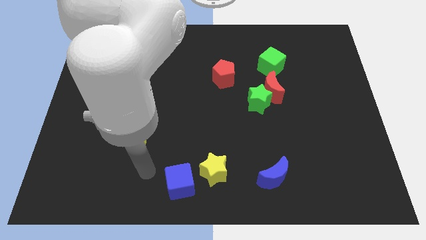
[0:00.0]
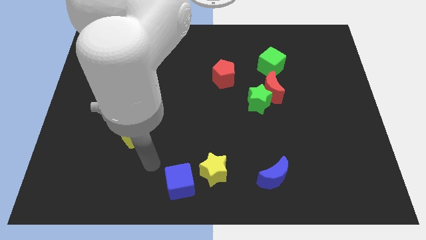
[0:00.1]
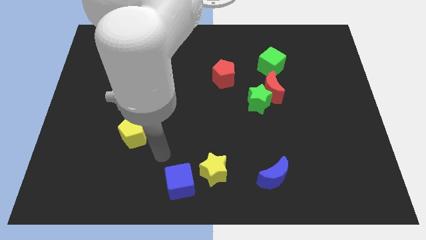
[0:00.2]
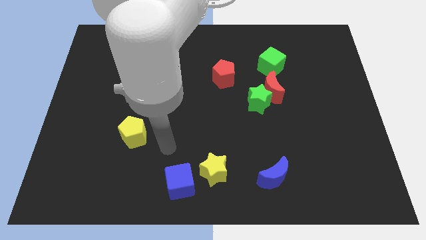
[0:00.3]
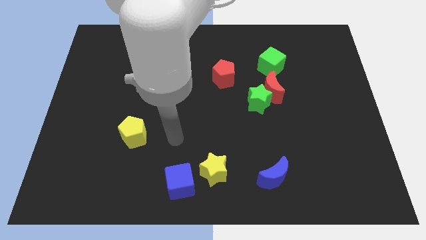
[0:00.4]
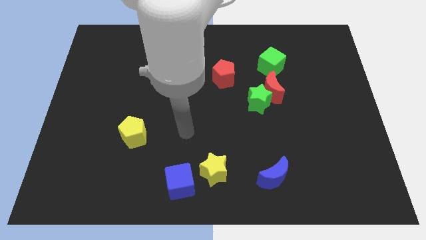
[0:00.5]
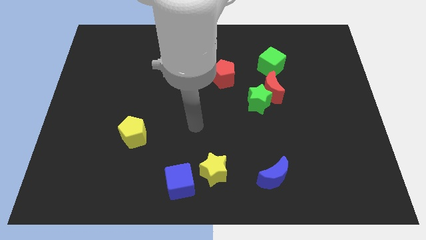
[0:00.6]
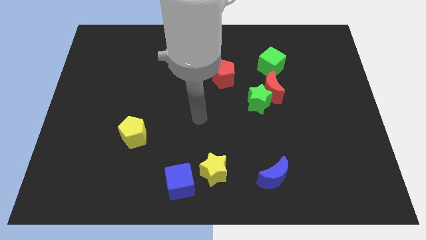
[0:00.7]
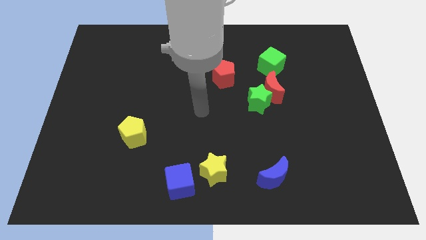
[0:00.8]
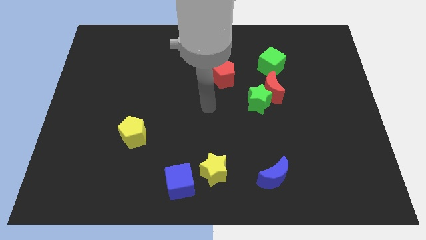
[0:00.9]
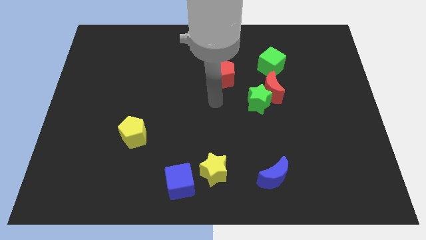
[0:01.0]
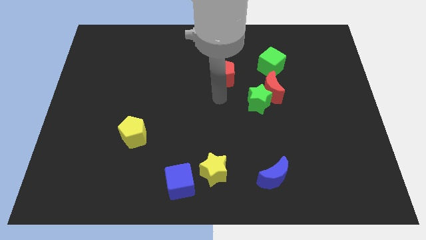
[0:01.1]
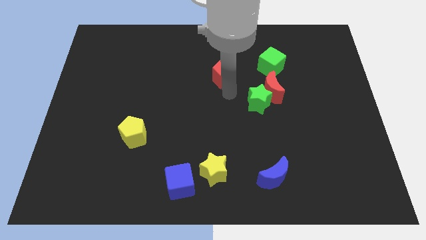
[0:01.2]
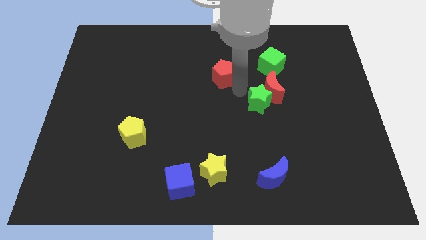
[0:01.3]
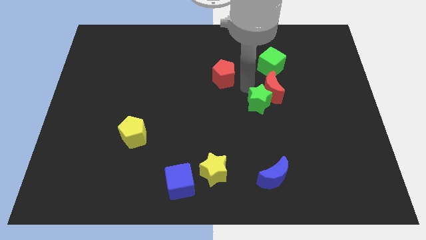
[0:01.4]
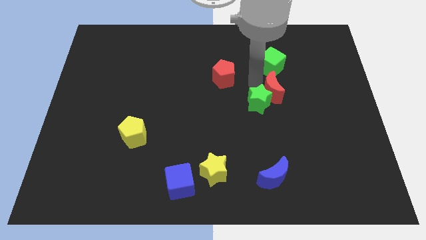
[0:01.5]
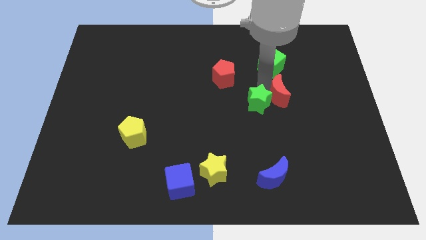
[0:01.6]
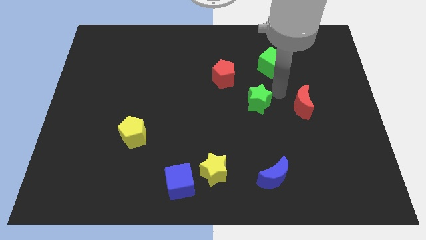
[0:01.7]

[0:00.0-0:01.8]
separate the green star from the red moon

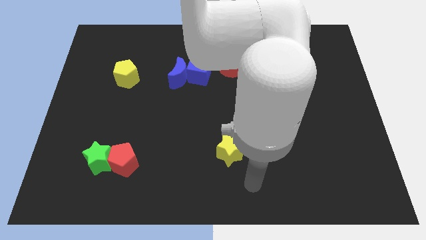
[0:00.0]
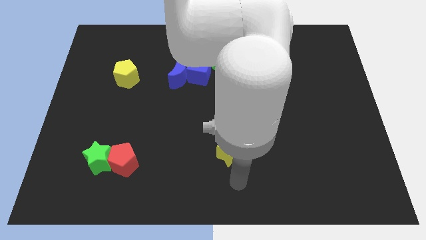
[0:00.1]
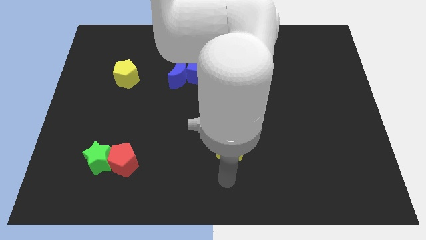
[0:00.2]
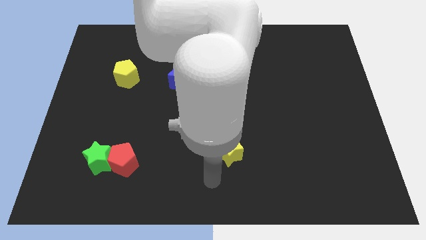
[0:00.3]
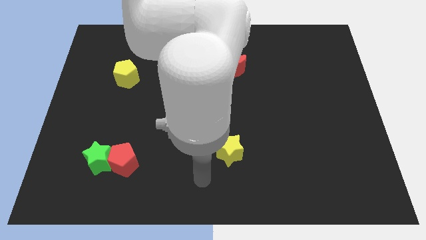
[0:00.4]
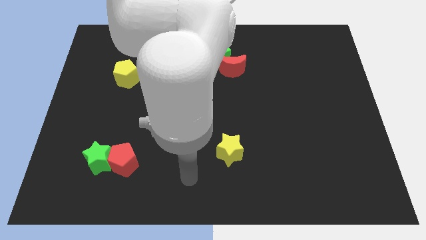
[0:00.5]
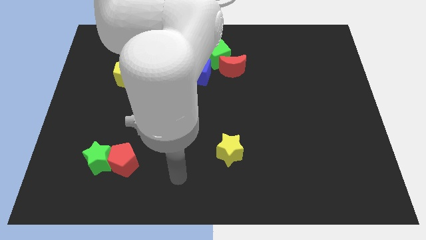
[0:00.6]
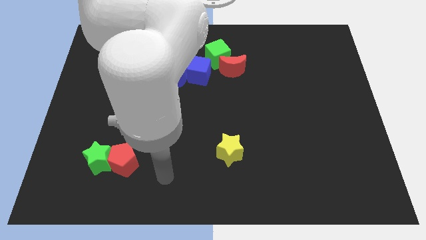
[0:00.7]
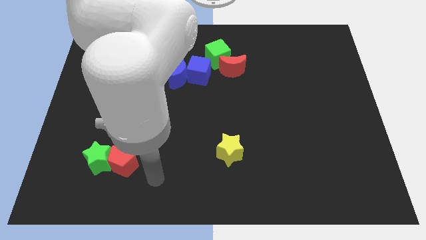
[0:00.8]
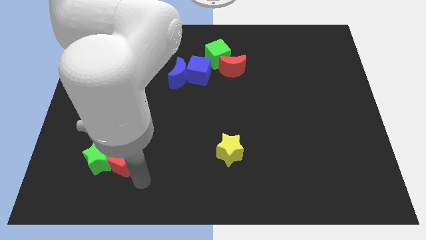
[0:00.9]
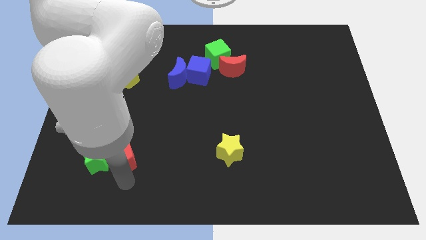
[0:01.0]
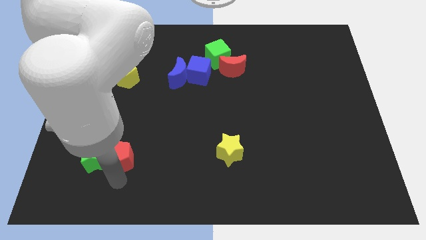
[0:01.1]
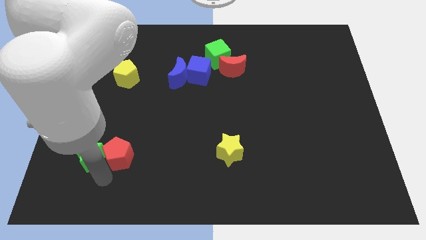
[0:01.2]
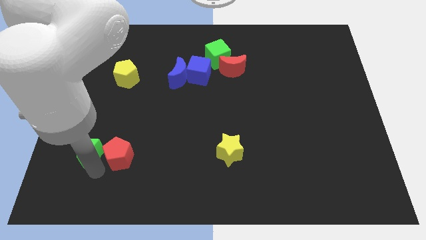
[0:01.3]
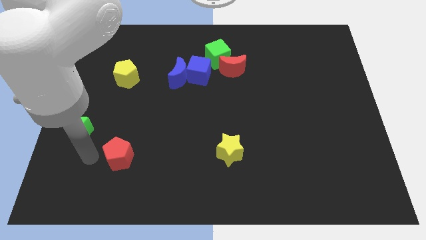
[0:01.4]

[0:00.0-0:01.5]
move the red pentagon away from the green star

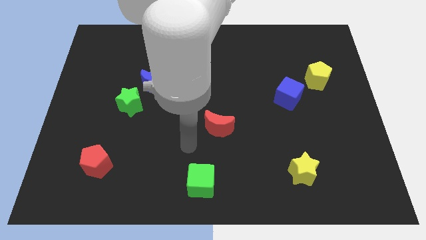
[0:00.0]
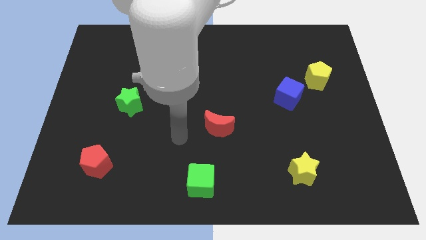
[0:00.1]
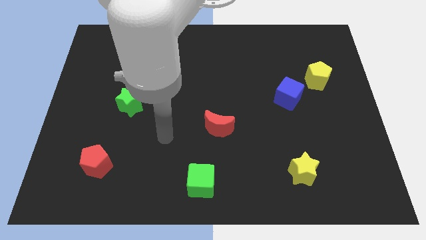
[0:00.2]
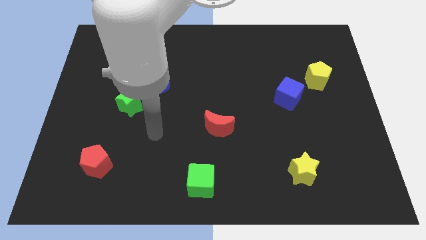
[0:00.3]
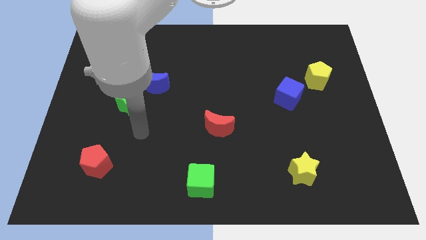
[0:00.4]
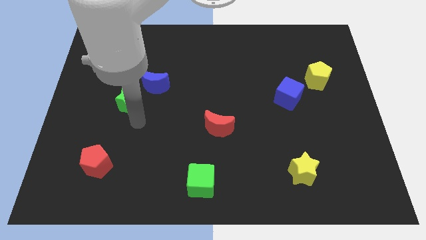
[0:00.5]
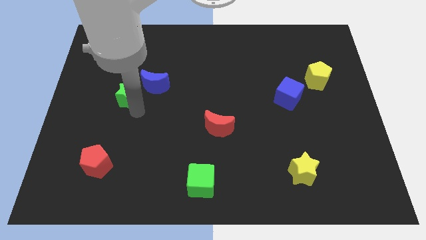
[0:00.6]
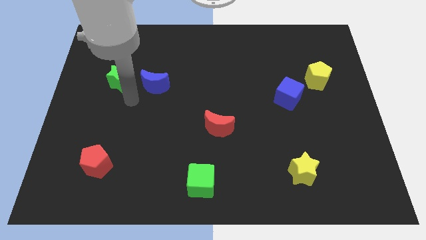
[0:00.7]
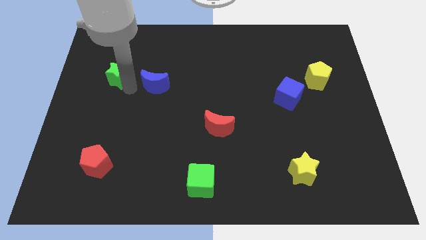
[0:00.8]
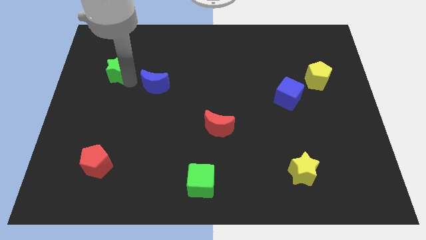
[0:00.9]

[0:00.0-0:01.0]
move the blue moon away from the green star

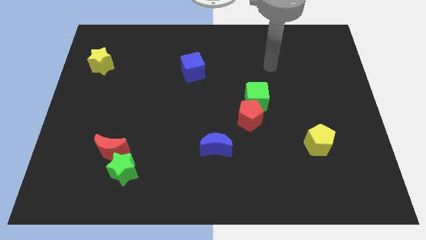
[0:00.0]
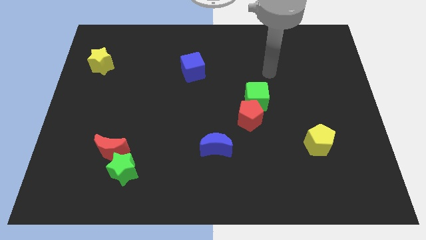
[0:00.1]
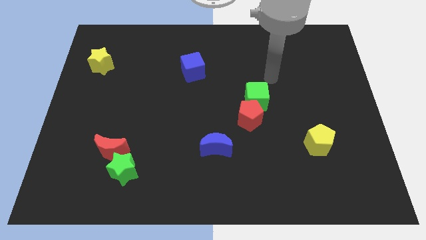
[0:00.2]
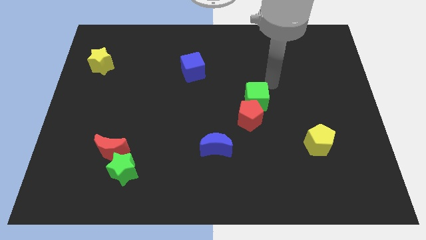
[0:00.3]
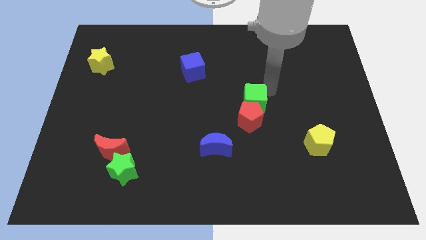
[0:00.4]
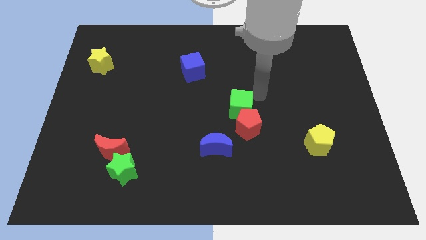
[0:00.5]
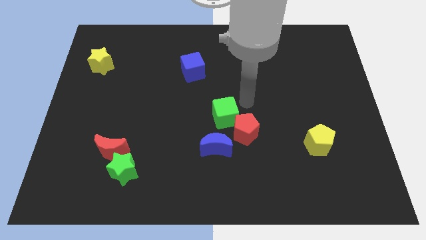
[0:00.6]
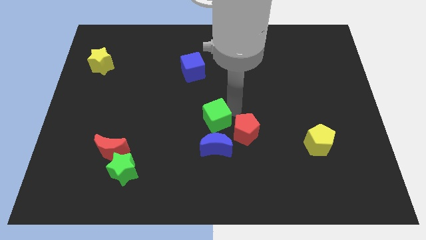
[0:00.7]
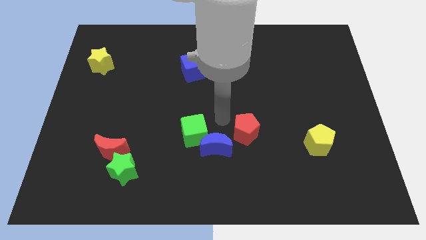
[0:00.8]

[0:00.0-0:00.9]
pull the red pentagon apart from the green cube

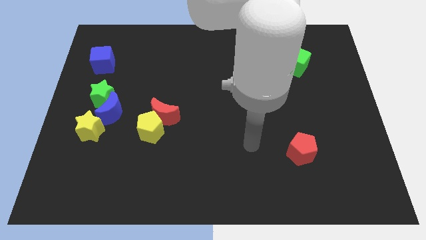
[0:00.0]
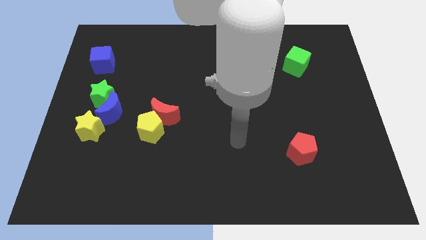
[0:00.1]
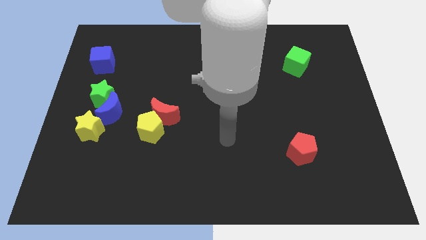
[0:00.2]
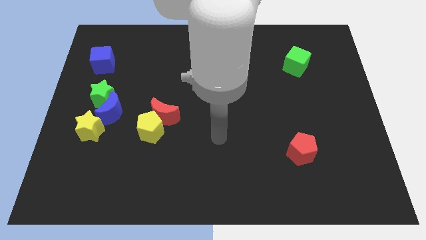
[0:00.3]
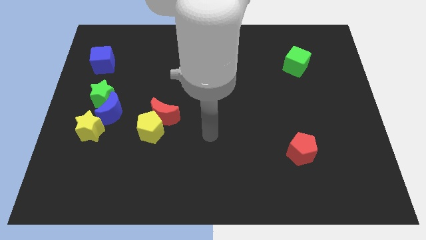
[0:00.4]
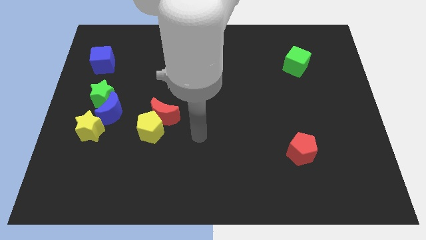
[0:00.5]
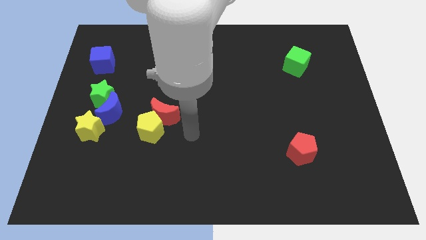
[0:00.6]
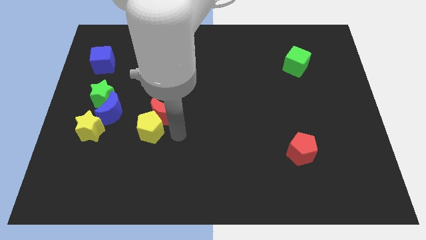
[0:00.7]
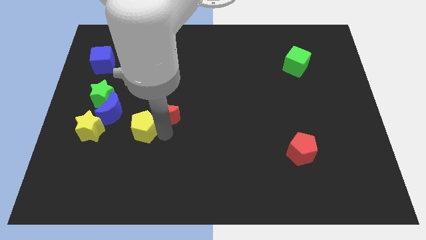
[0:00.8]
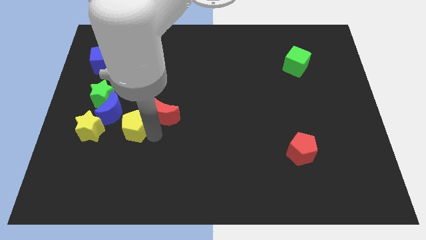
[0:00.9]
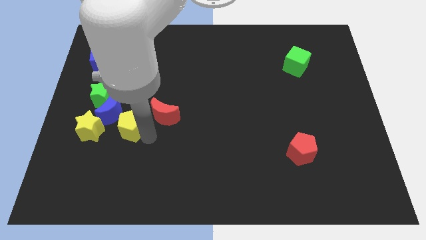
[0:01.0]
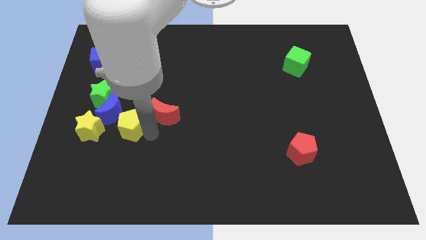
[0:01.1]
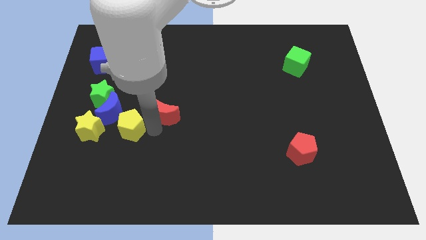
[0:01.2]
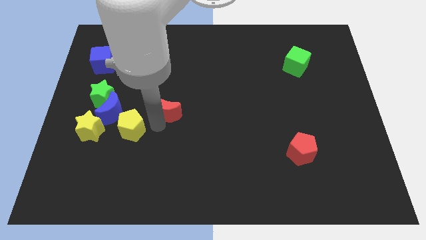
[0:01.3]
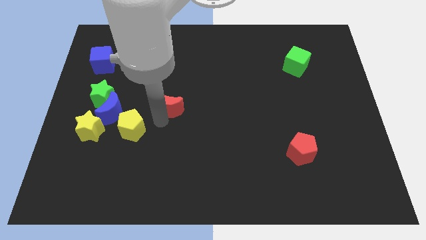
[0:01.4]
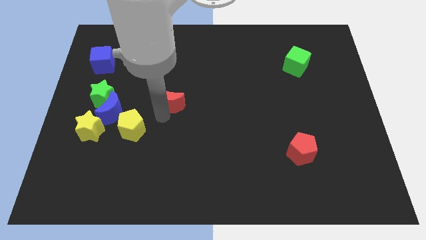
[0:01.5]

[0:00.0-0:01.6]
move the red moon away from the yellow pentagon

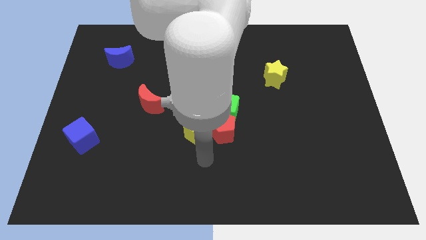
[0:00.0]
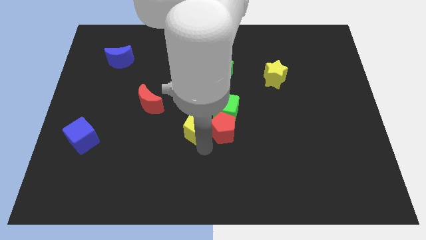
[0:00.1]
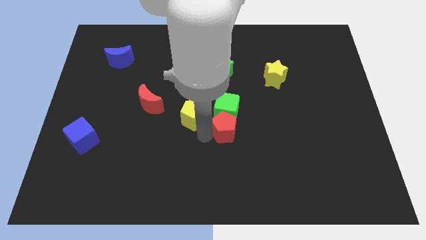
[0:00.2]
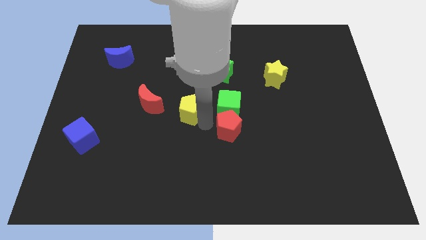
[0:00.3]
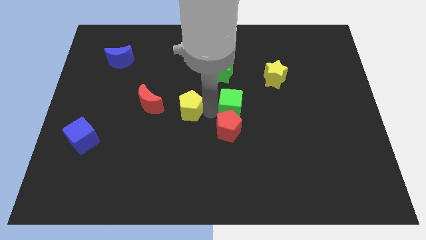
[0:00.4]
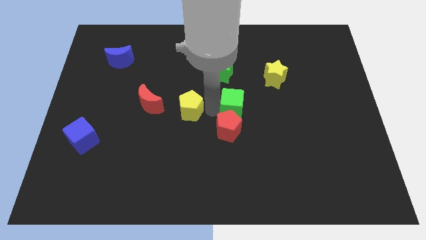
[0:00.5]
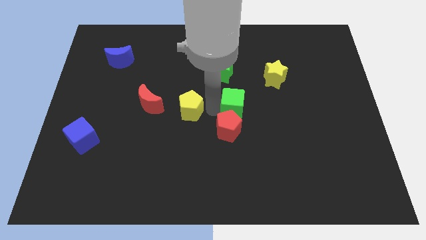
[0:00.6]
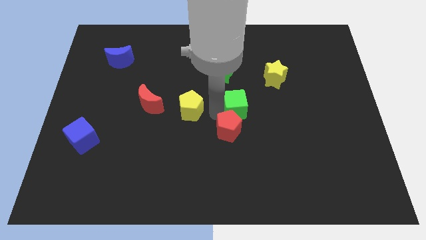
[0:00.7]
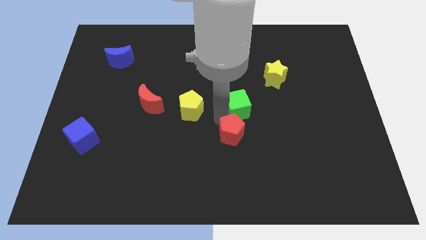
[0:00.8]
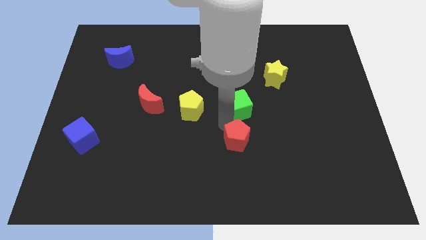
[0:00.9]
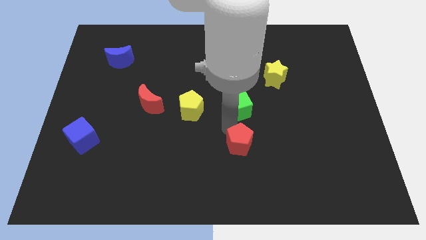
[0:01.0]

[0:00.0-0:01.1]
move the red pentagon away from the green cube and yellow pentagon

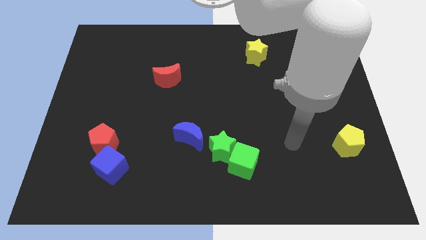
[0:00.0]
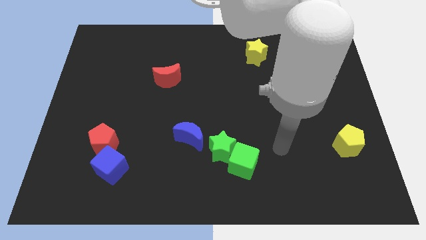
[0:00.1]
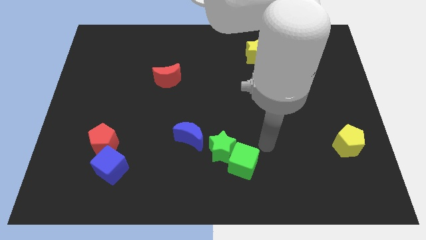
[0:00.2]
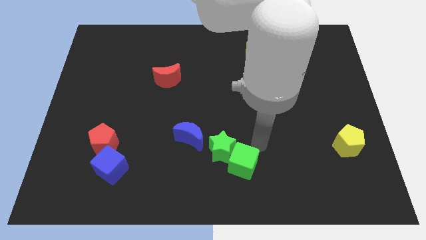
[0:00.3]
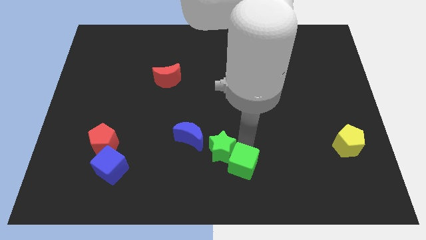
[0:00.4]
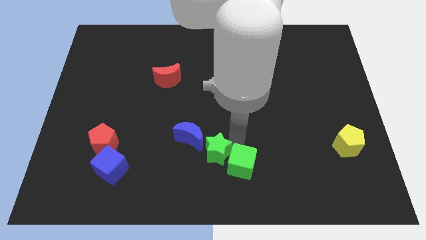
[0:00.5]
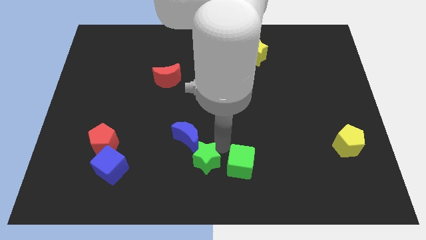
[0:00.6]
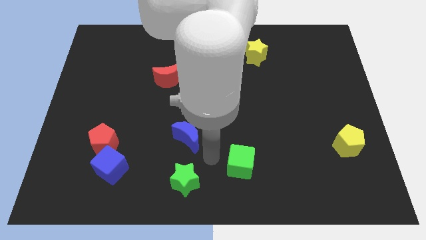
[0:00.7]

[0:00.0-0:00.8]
move the green cube away from the green star

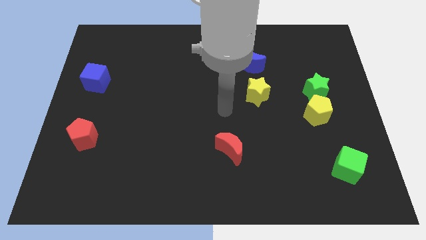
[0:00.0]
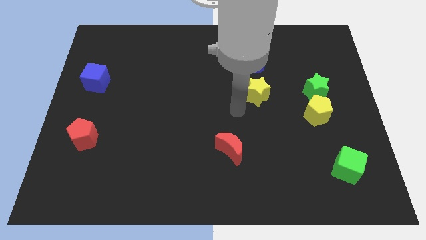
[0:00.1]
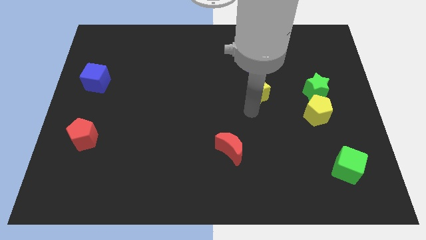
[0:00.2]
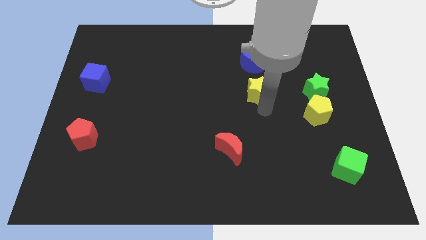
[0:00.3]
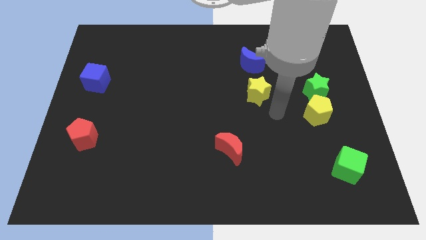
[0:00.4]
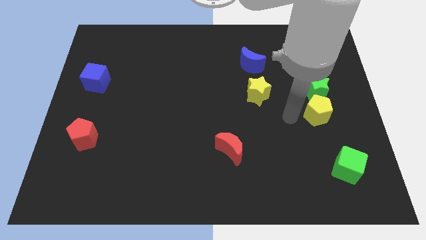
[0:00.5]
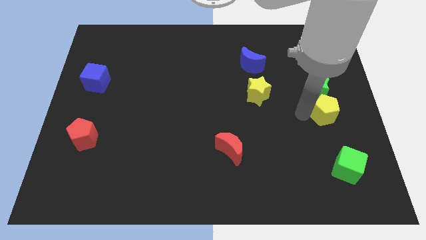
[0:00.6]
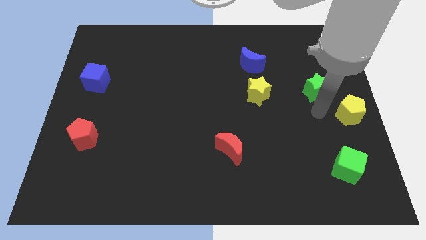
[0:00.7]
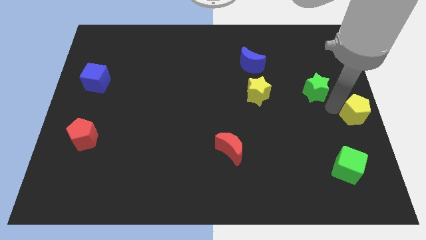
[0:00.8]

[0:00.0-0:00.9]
move the green star away from the yellow pentagon
